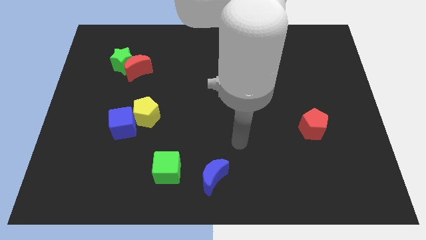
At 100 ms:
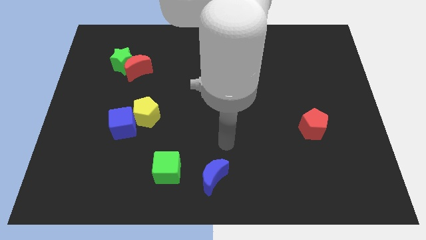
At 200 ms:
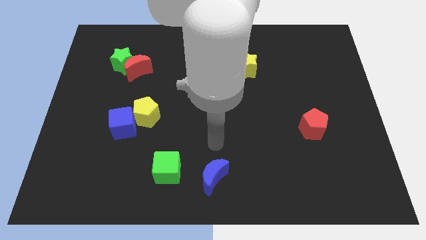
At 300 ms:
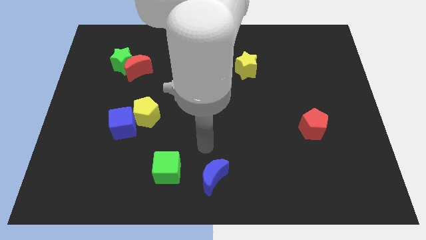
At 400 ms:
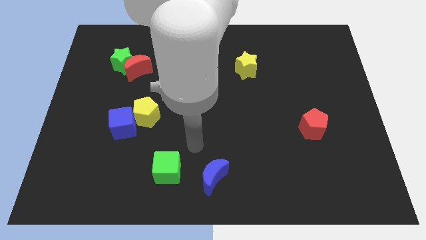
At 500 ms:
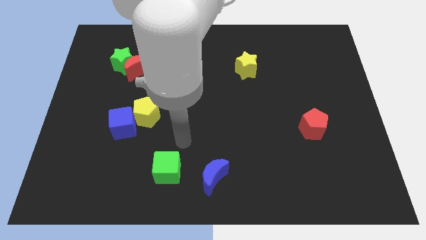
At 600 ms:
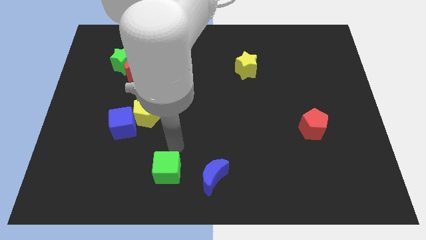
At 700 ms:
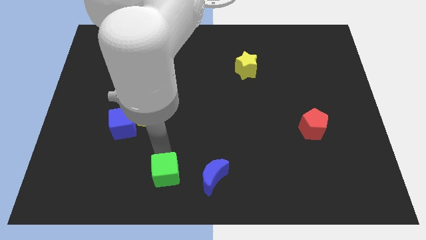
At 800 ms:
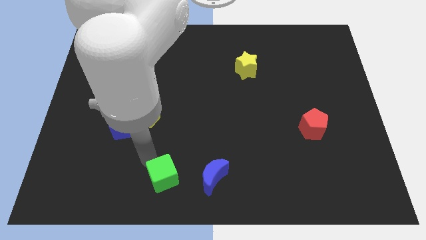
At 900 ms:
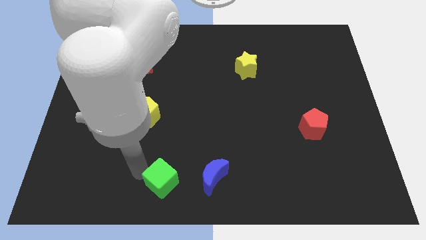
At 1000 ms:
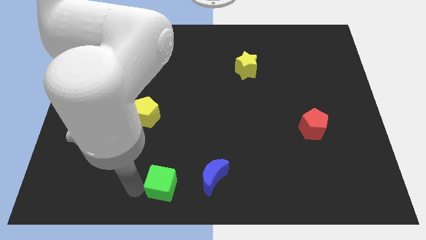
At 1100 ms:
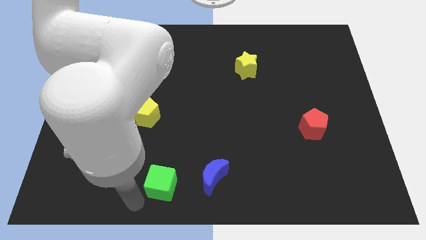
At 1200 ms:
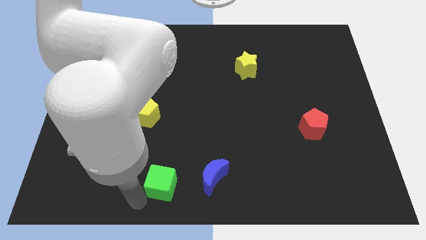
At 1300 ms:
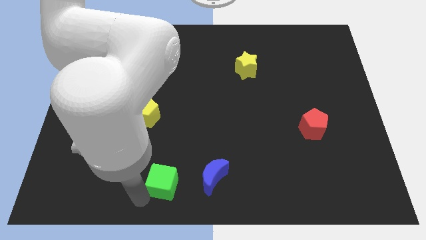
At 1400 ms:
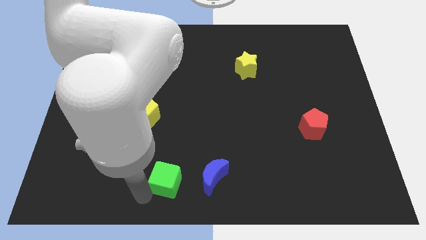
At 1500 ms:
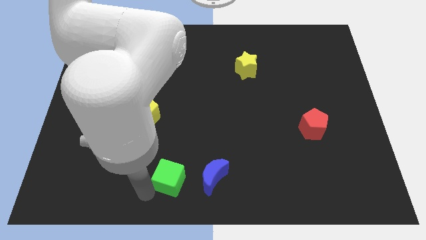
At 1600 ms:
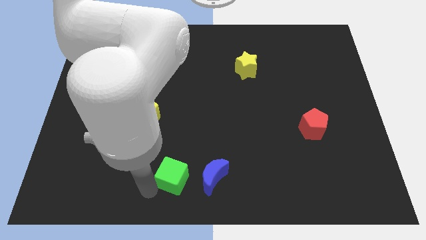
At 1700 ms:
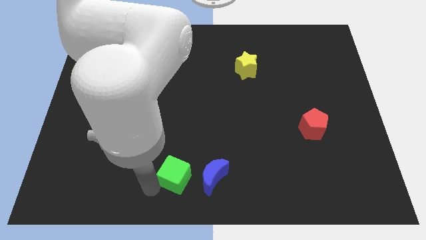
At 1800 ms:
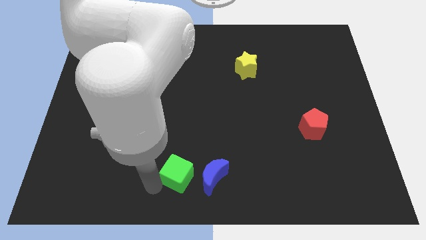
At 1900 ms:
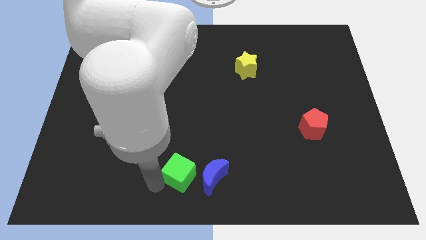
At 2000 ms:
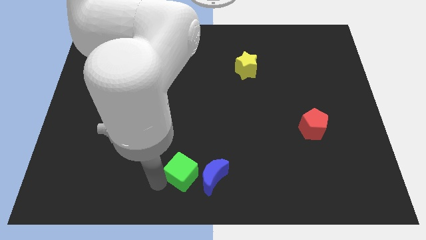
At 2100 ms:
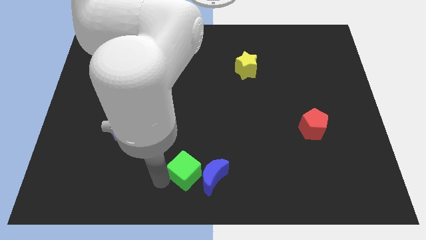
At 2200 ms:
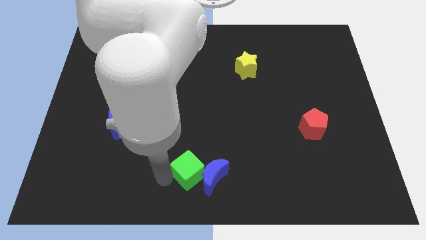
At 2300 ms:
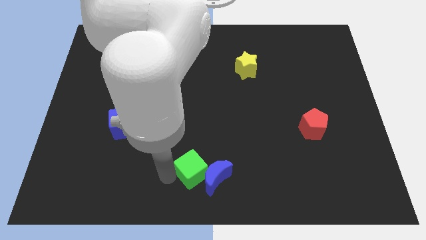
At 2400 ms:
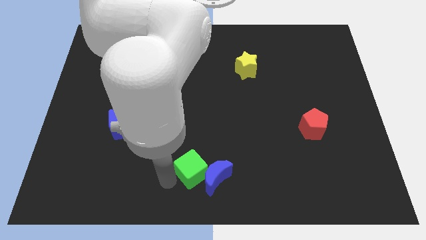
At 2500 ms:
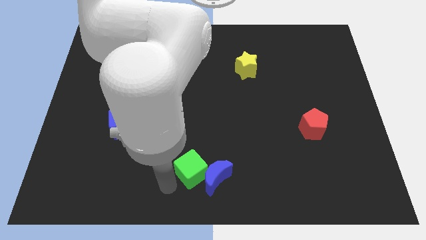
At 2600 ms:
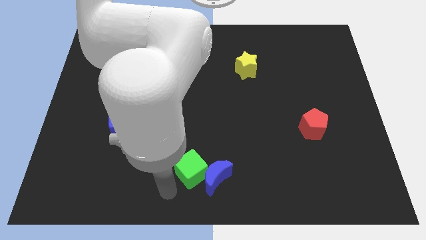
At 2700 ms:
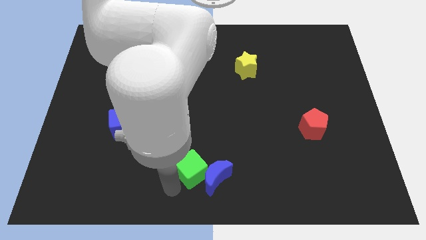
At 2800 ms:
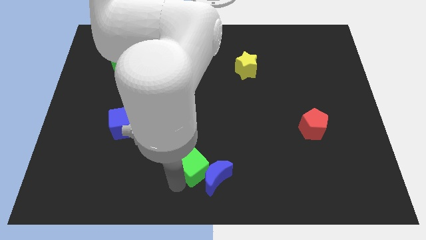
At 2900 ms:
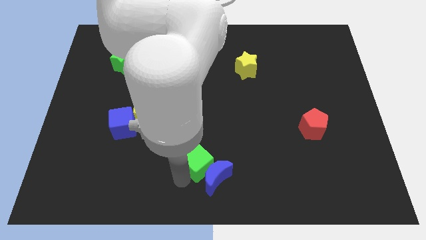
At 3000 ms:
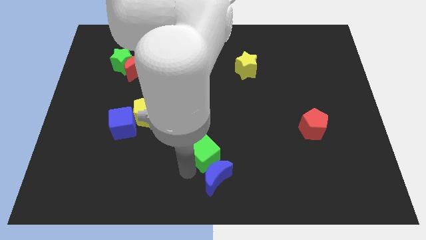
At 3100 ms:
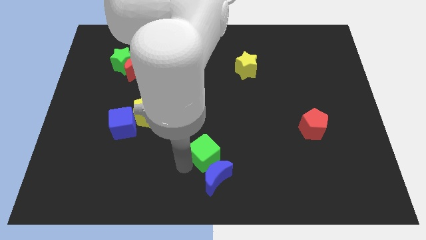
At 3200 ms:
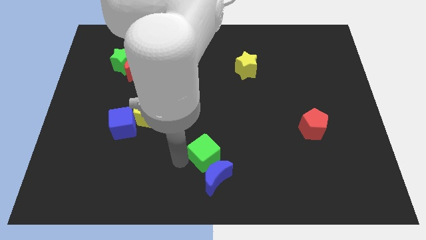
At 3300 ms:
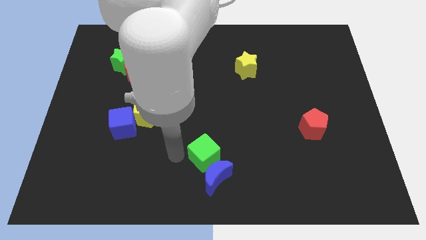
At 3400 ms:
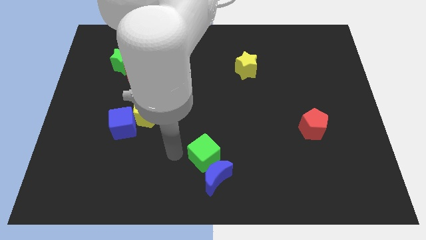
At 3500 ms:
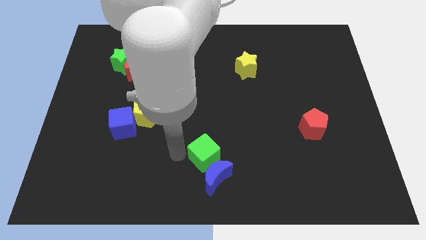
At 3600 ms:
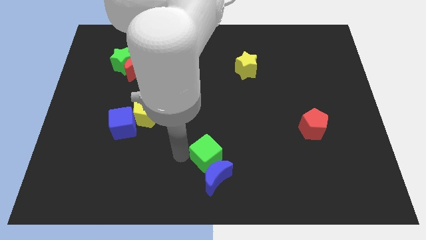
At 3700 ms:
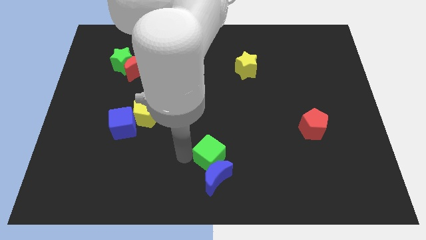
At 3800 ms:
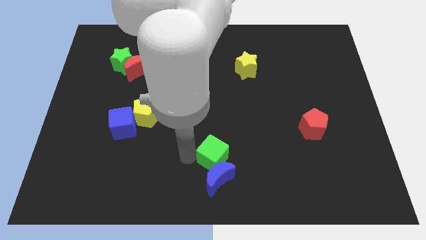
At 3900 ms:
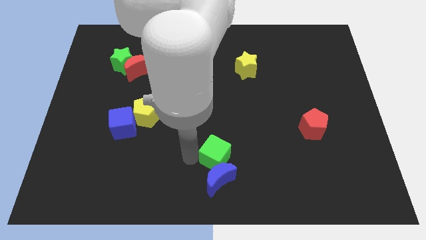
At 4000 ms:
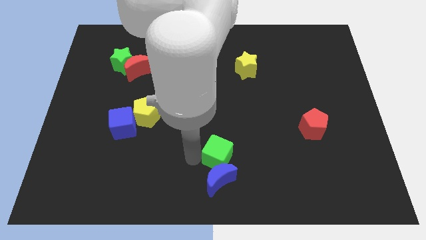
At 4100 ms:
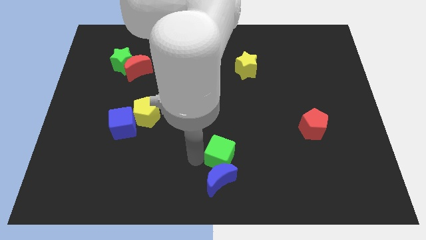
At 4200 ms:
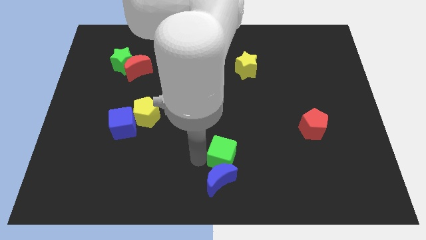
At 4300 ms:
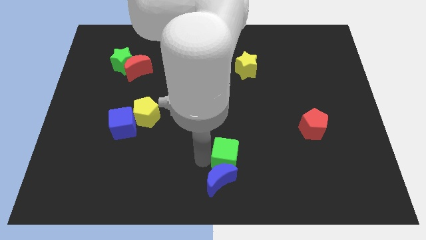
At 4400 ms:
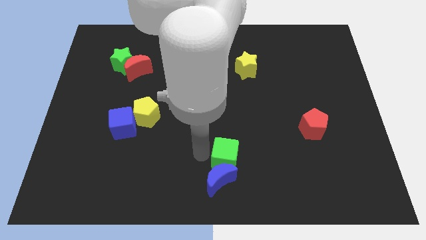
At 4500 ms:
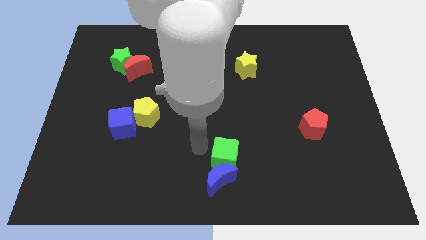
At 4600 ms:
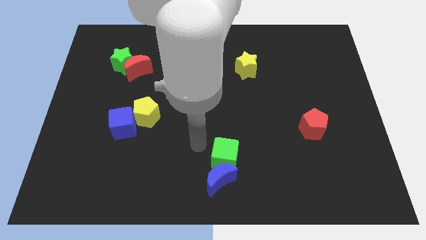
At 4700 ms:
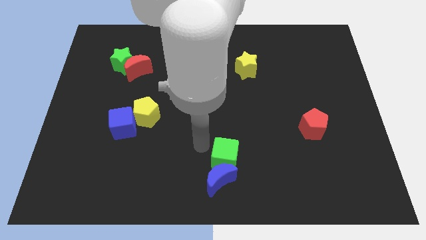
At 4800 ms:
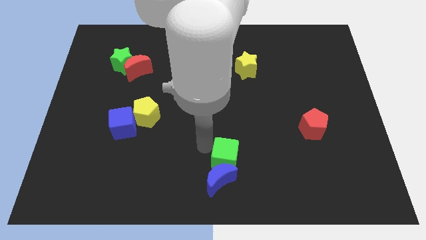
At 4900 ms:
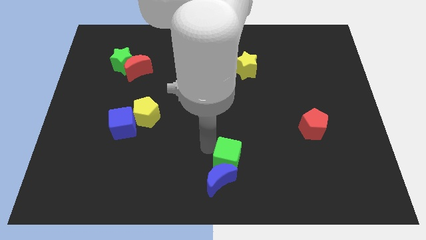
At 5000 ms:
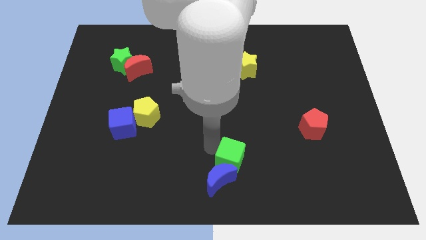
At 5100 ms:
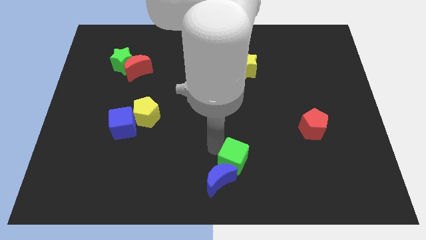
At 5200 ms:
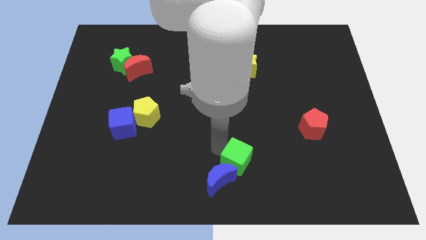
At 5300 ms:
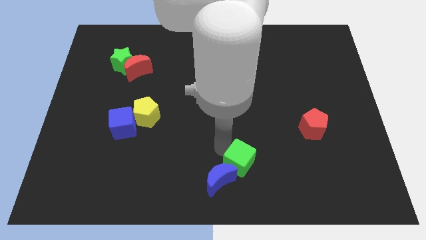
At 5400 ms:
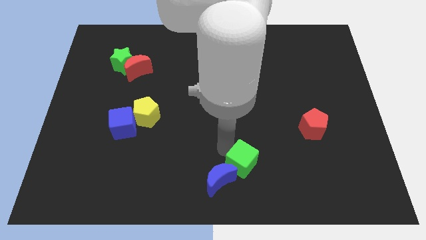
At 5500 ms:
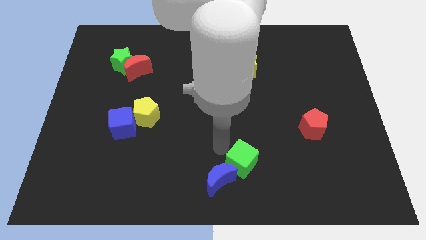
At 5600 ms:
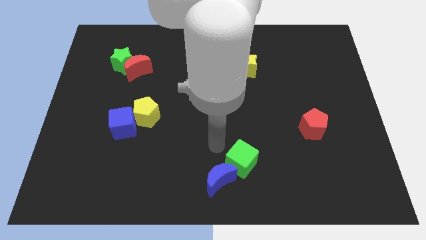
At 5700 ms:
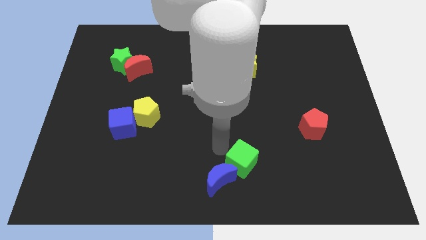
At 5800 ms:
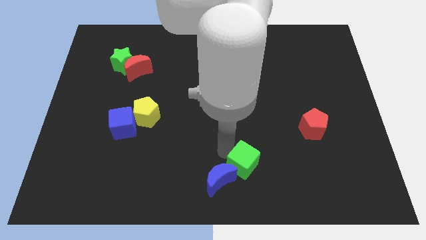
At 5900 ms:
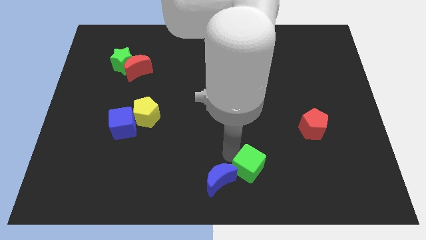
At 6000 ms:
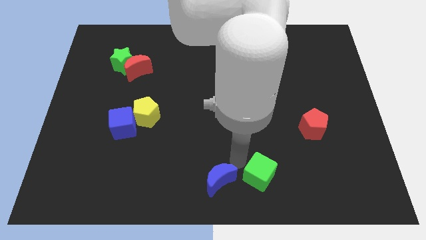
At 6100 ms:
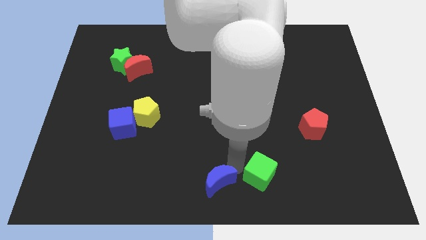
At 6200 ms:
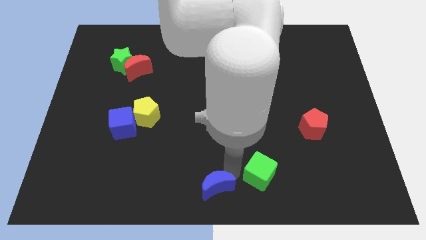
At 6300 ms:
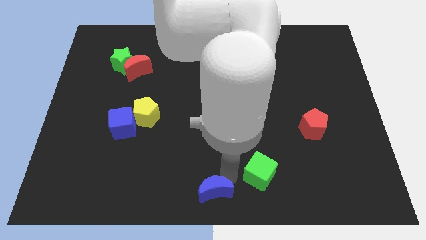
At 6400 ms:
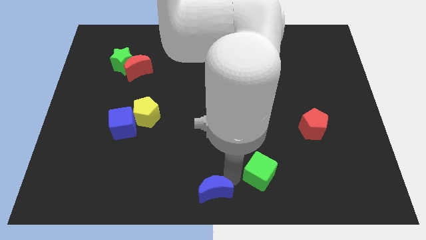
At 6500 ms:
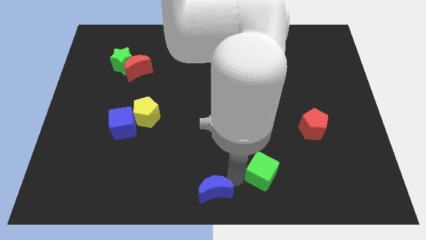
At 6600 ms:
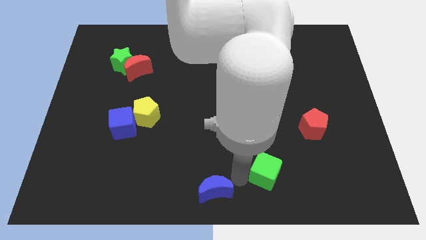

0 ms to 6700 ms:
move the green cube to the right

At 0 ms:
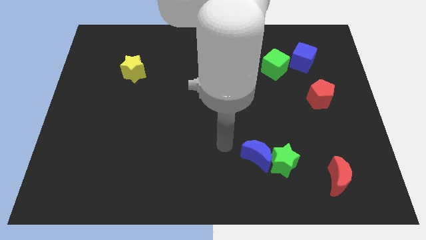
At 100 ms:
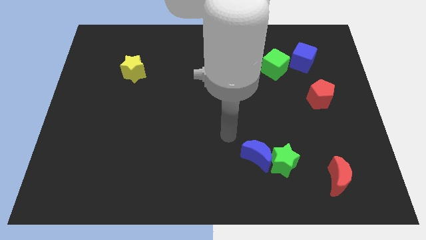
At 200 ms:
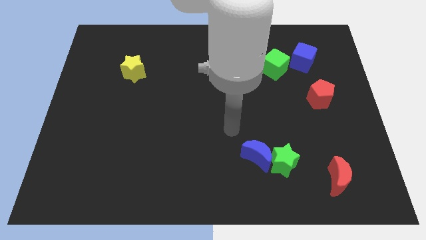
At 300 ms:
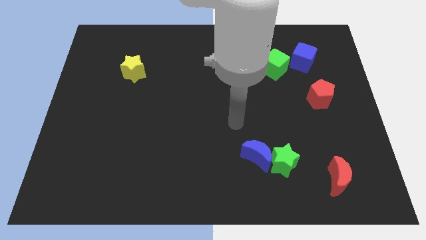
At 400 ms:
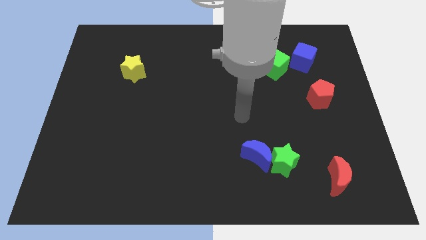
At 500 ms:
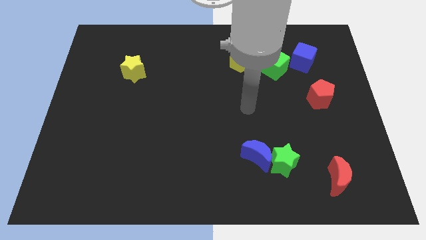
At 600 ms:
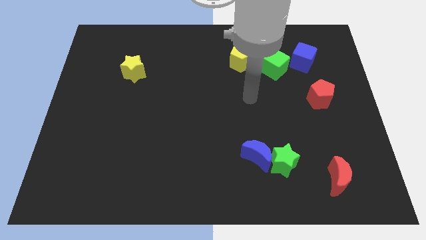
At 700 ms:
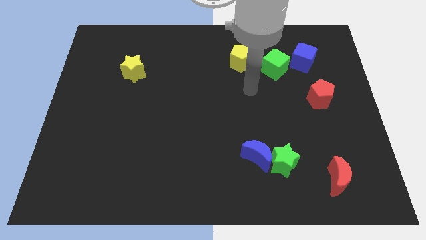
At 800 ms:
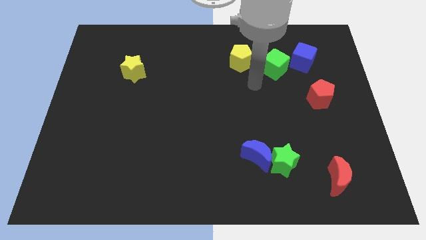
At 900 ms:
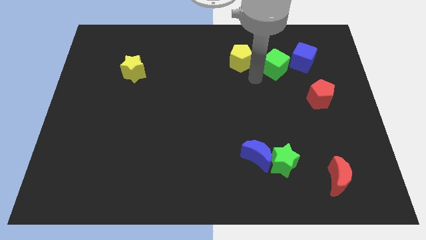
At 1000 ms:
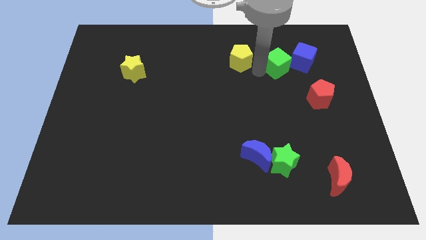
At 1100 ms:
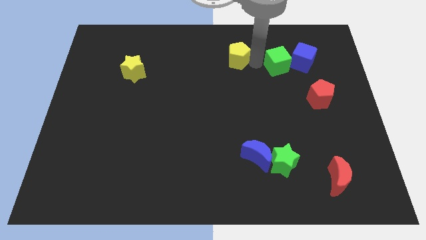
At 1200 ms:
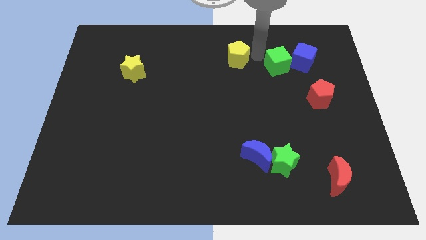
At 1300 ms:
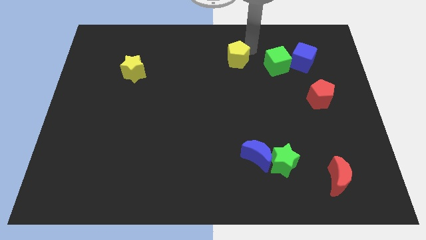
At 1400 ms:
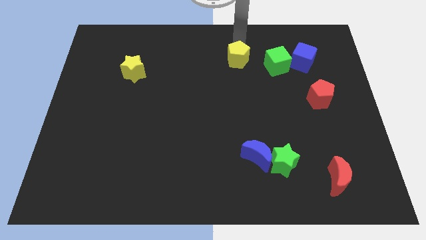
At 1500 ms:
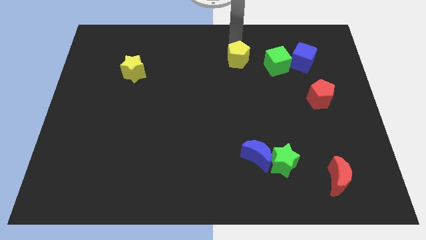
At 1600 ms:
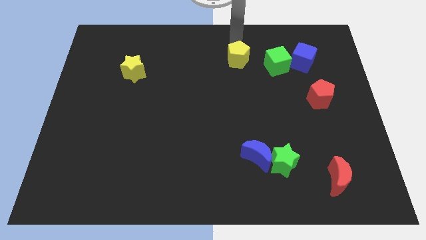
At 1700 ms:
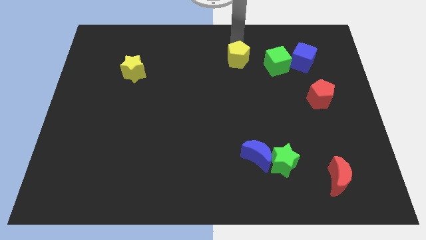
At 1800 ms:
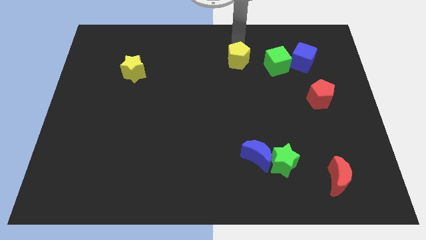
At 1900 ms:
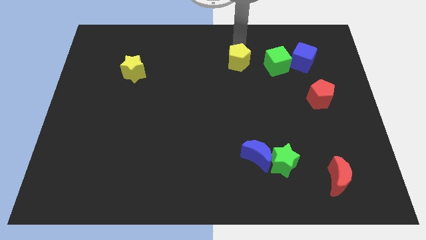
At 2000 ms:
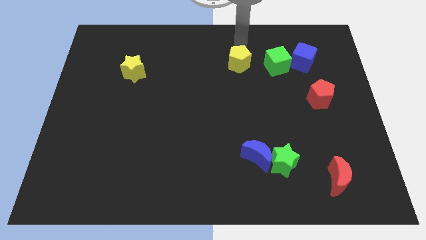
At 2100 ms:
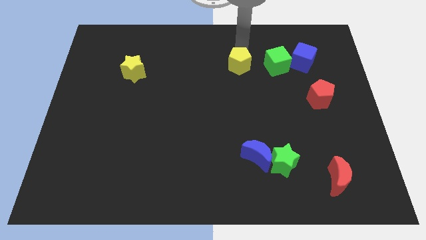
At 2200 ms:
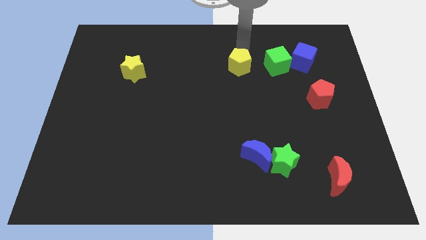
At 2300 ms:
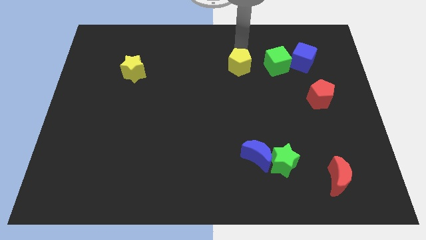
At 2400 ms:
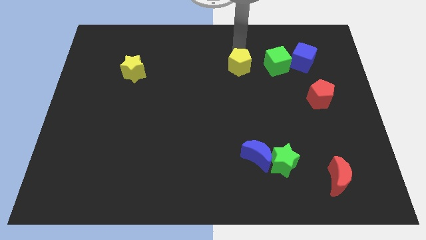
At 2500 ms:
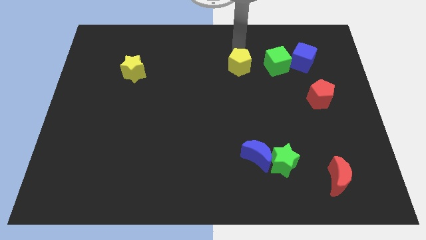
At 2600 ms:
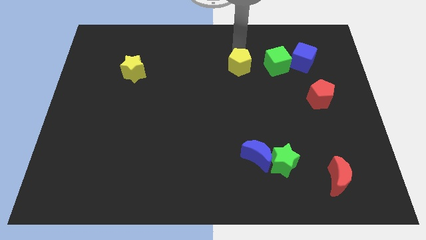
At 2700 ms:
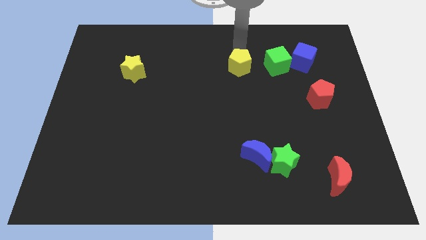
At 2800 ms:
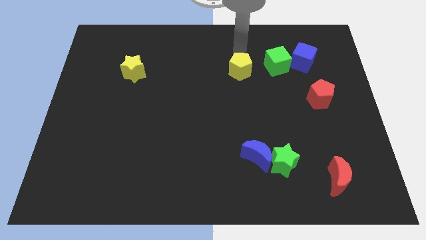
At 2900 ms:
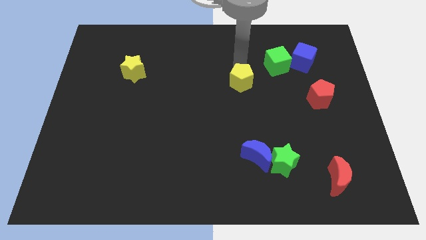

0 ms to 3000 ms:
slightly push the yellow pentagon down
